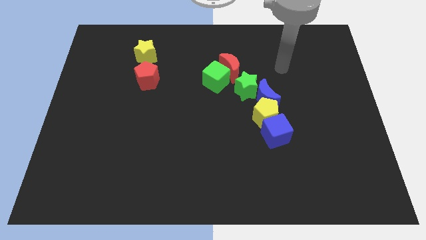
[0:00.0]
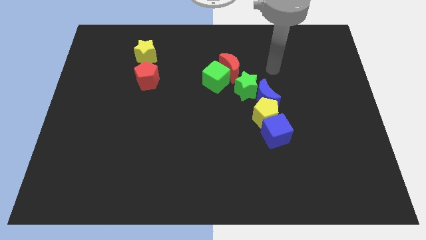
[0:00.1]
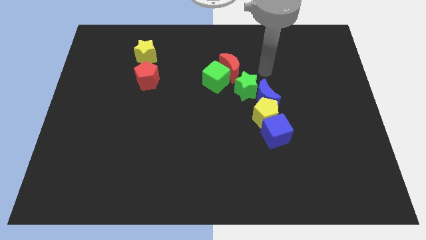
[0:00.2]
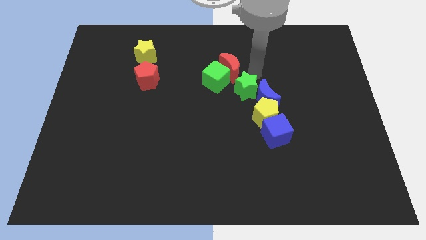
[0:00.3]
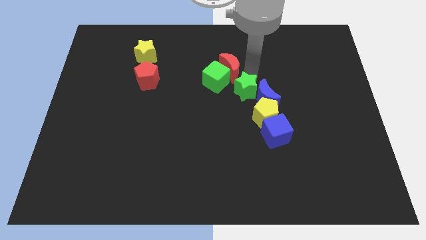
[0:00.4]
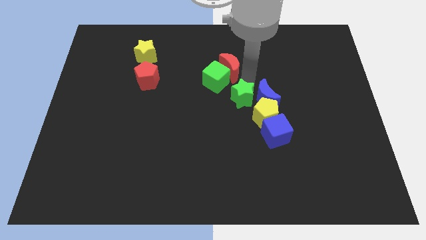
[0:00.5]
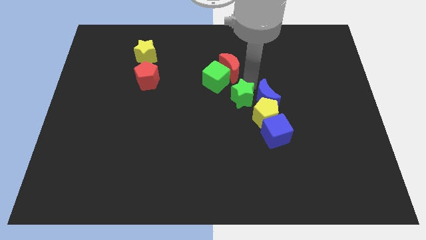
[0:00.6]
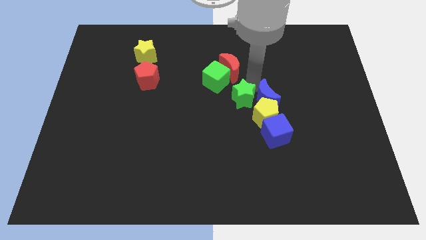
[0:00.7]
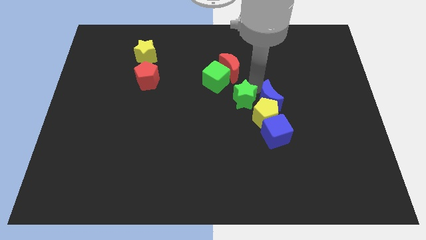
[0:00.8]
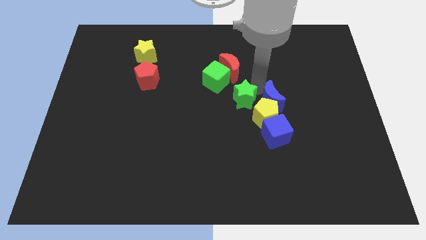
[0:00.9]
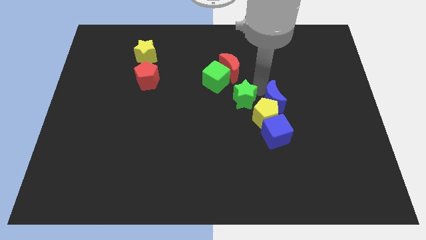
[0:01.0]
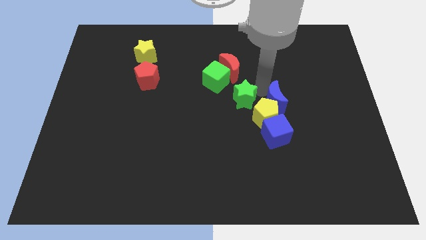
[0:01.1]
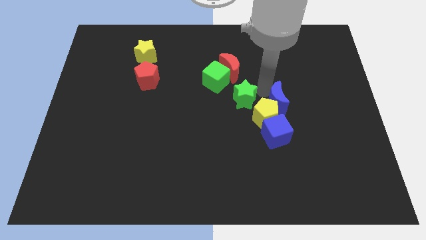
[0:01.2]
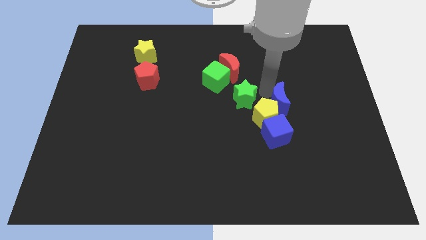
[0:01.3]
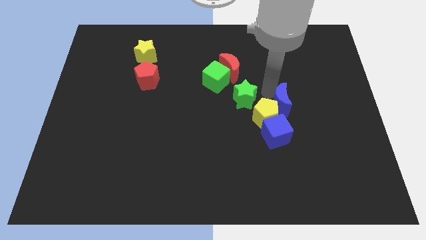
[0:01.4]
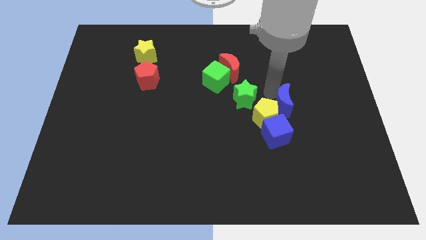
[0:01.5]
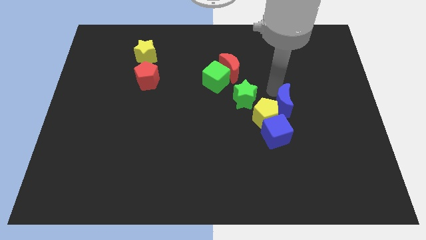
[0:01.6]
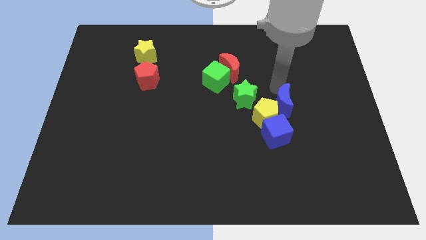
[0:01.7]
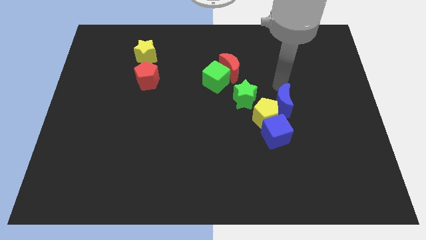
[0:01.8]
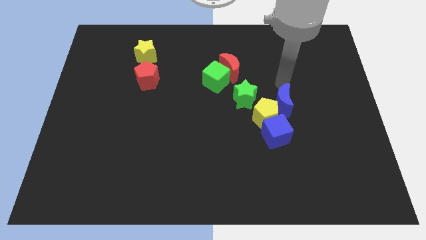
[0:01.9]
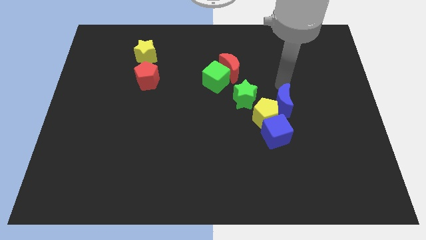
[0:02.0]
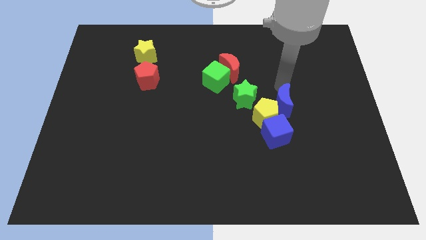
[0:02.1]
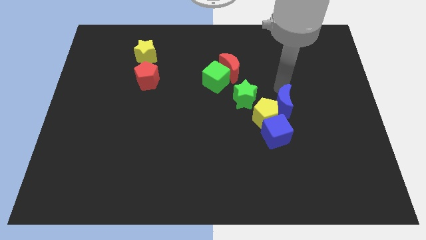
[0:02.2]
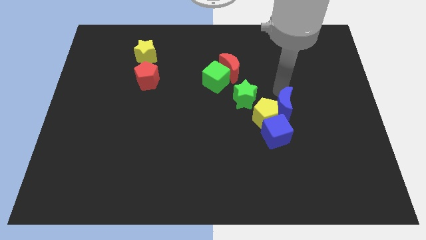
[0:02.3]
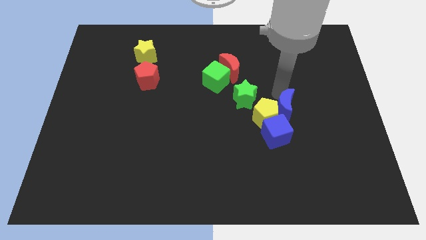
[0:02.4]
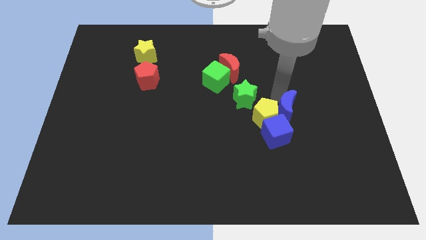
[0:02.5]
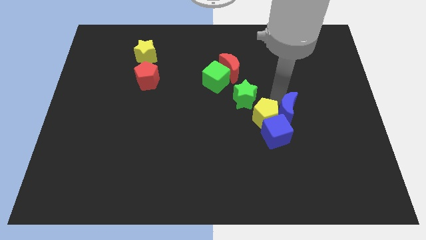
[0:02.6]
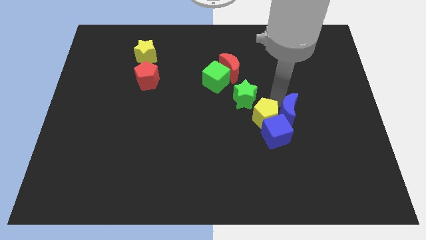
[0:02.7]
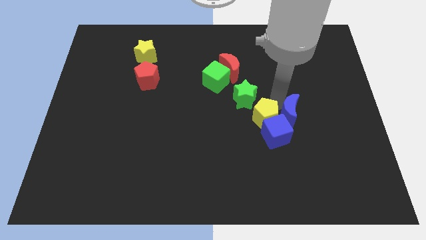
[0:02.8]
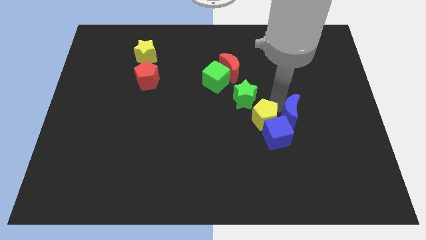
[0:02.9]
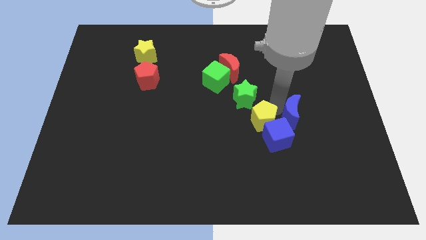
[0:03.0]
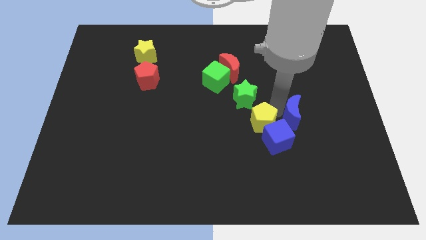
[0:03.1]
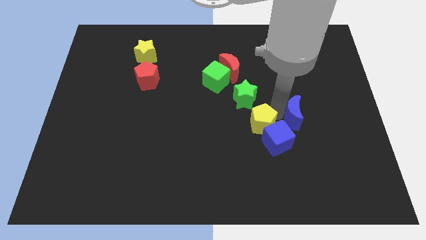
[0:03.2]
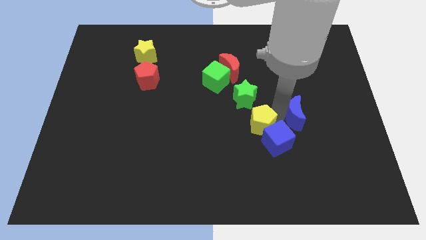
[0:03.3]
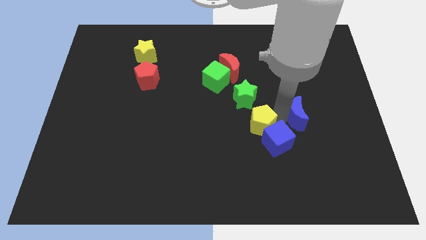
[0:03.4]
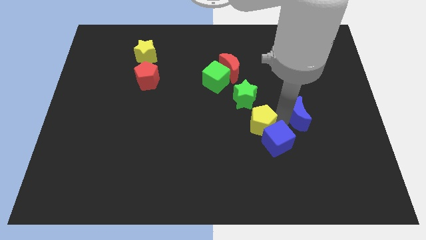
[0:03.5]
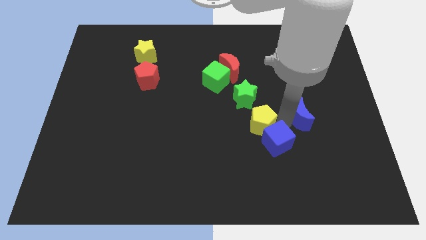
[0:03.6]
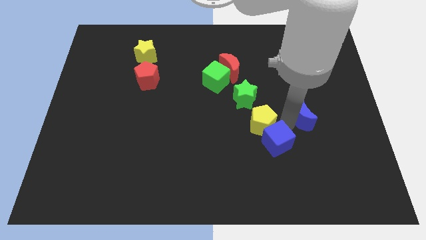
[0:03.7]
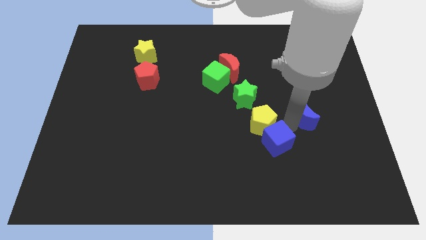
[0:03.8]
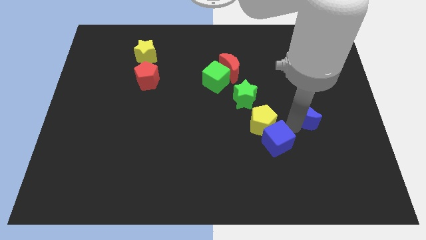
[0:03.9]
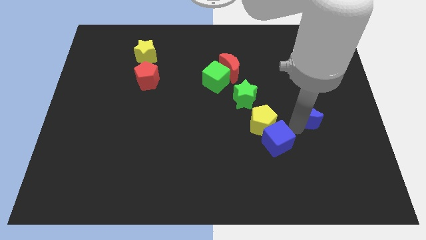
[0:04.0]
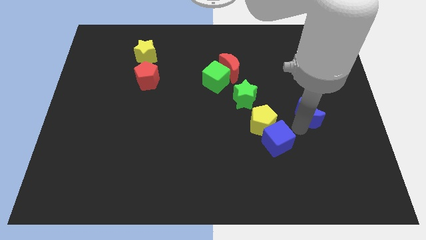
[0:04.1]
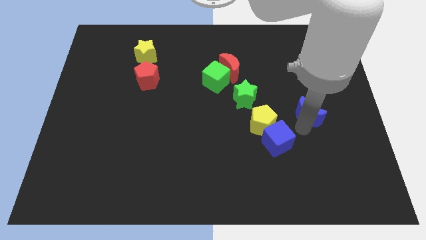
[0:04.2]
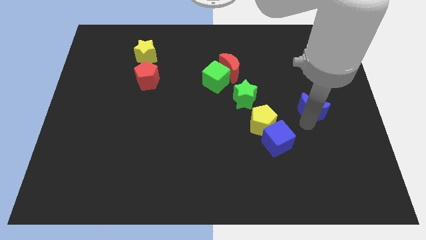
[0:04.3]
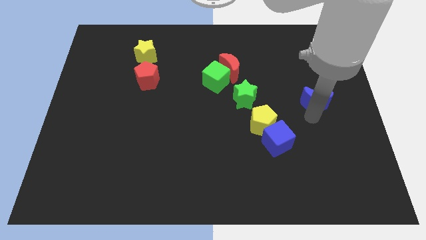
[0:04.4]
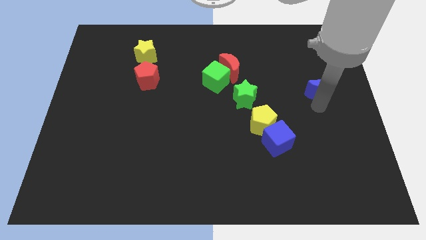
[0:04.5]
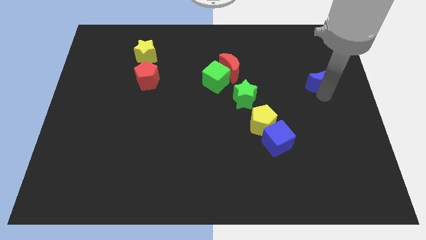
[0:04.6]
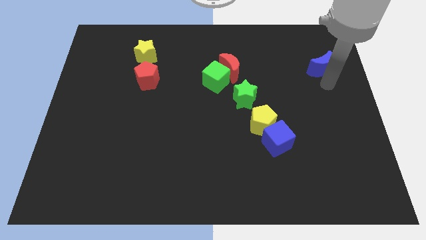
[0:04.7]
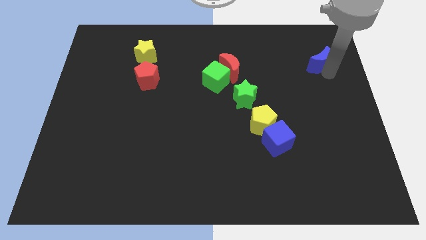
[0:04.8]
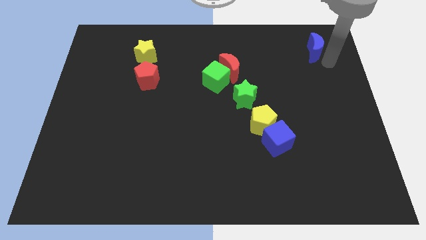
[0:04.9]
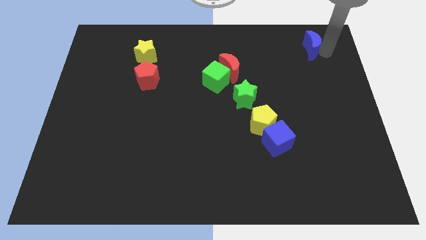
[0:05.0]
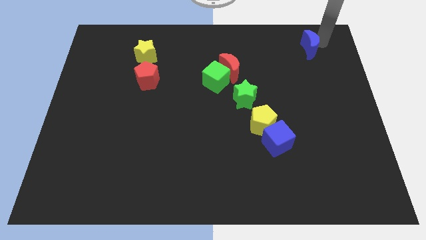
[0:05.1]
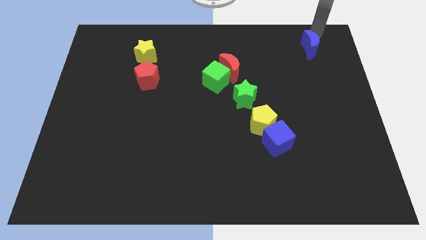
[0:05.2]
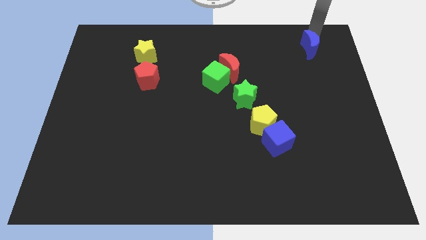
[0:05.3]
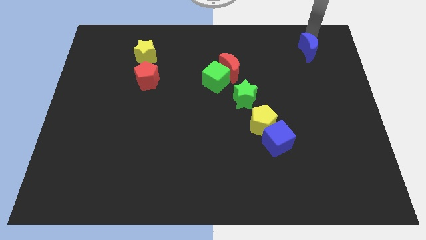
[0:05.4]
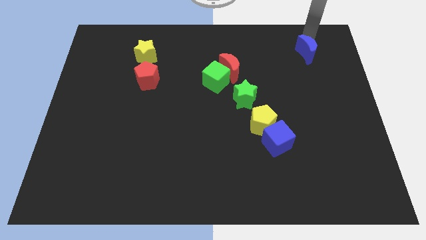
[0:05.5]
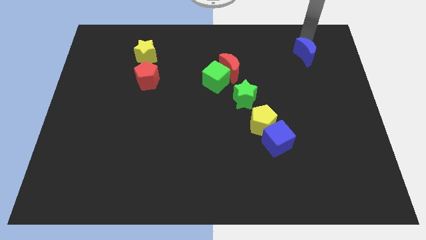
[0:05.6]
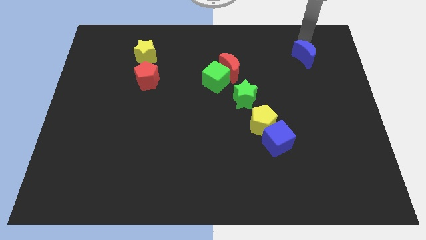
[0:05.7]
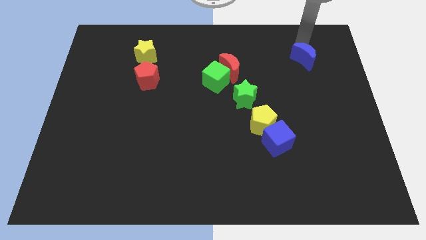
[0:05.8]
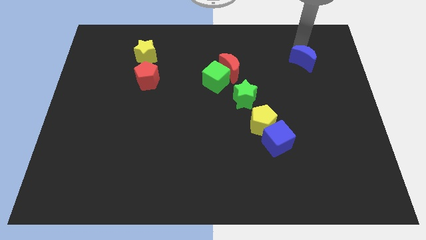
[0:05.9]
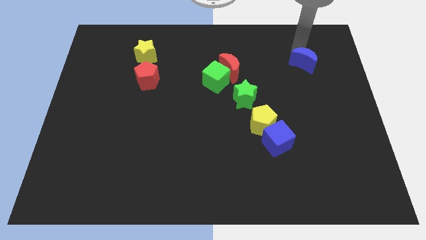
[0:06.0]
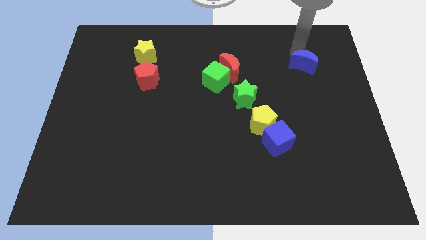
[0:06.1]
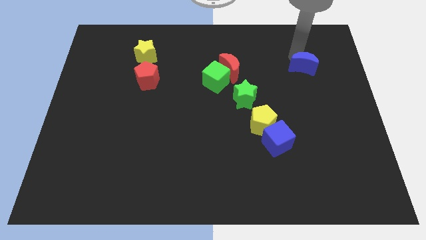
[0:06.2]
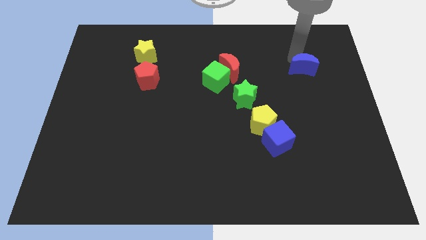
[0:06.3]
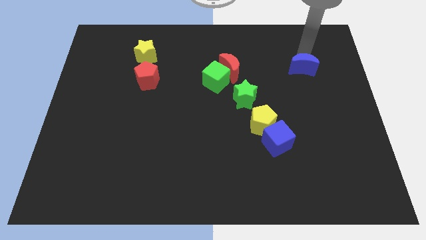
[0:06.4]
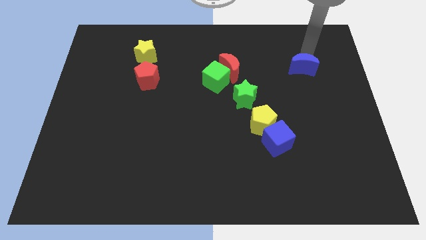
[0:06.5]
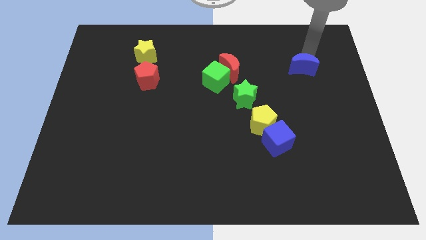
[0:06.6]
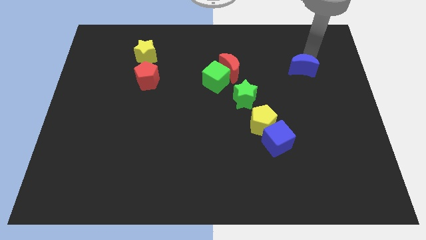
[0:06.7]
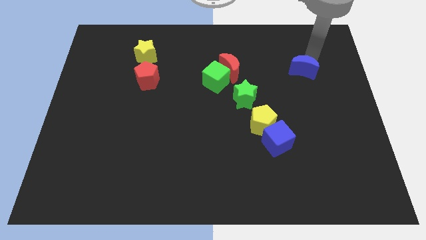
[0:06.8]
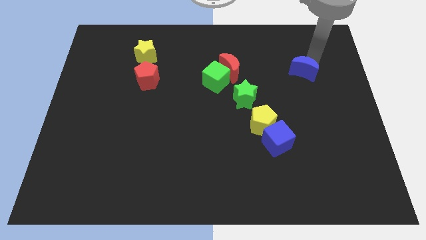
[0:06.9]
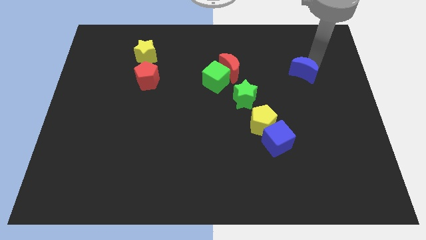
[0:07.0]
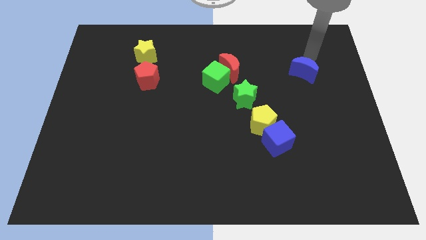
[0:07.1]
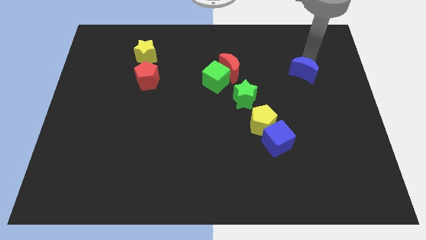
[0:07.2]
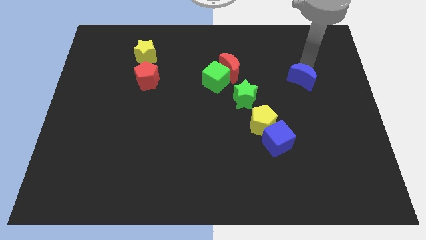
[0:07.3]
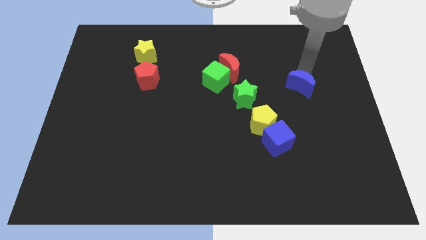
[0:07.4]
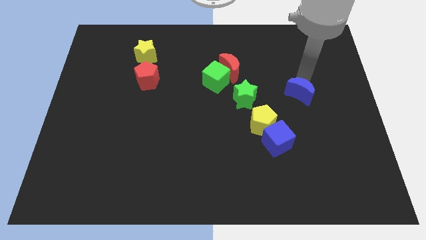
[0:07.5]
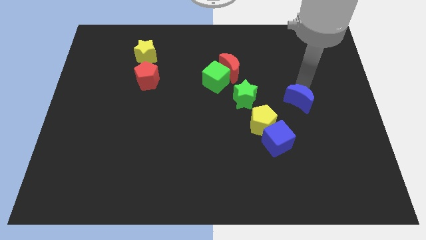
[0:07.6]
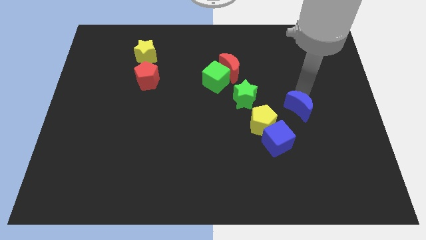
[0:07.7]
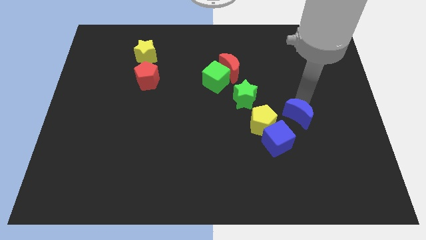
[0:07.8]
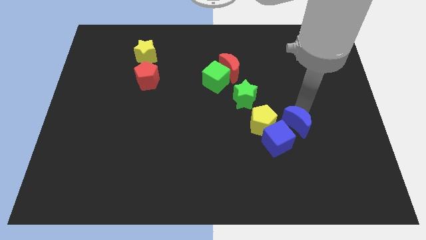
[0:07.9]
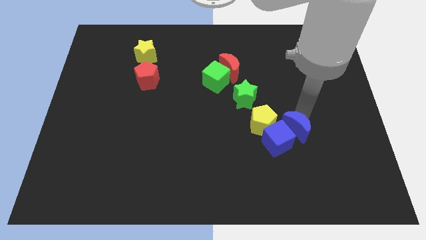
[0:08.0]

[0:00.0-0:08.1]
move the blue moon close to the blue cube
